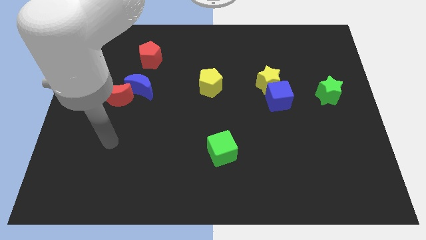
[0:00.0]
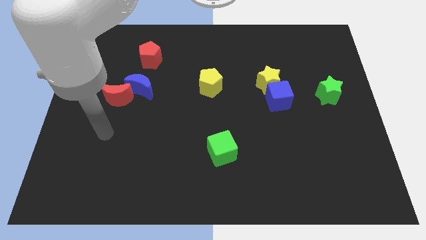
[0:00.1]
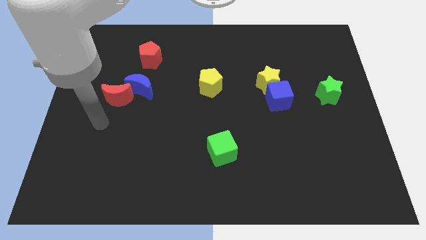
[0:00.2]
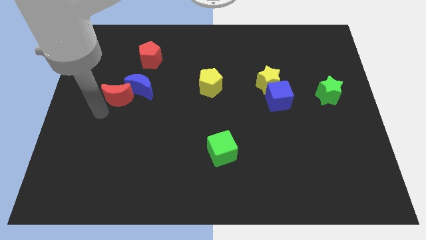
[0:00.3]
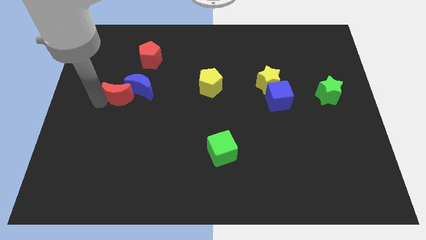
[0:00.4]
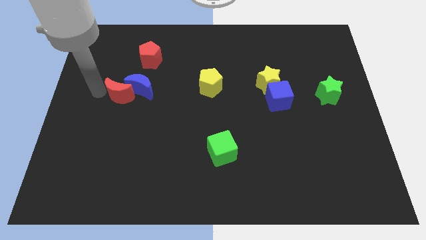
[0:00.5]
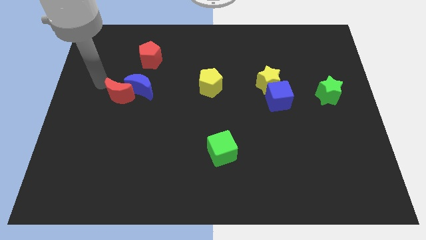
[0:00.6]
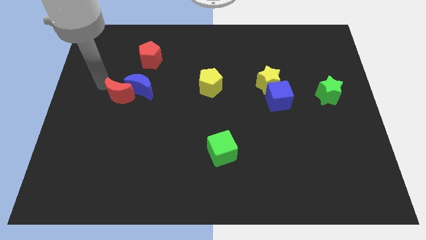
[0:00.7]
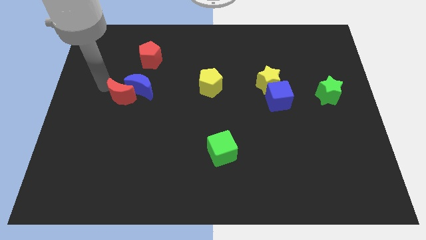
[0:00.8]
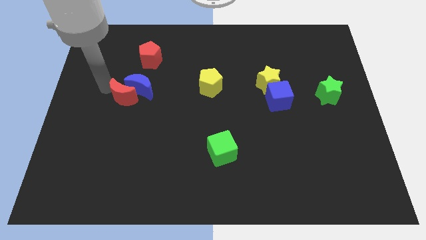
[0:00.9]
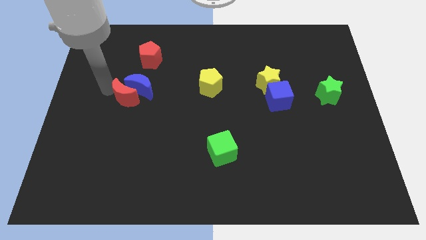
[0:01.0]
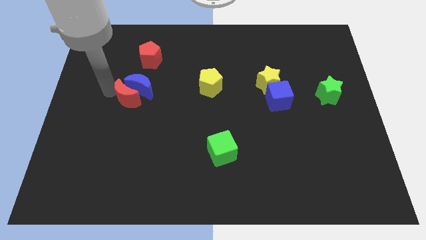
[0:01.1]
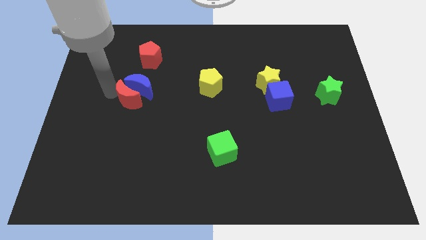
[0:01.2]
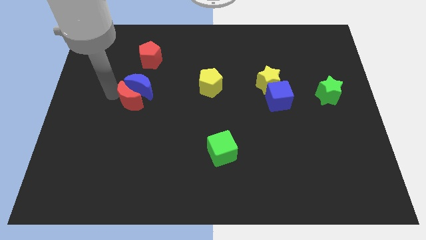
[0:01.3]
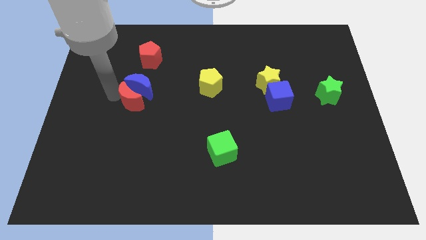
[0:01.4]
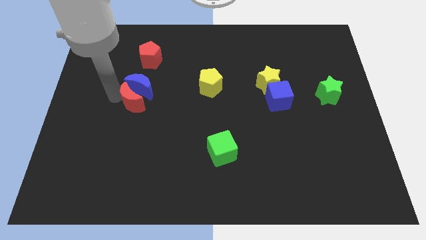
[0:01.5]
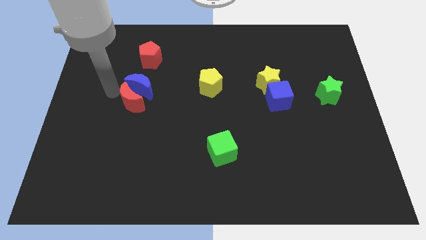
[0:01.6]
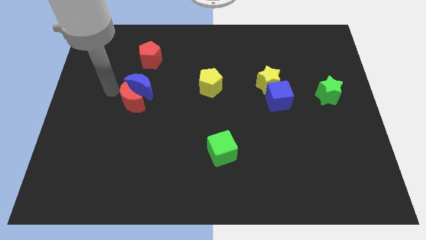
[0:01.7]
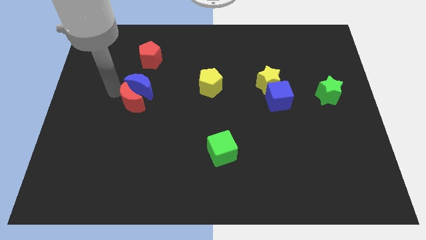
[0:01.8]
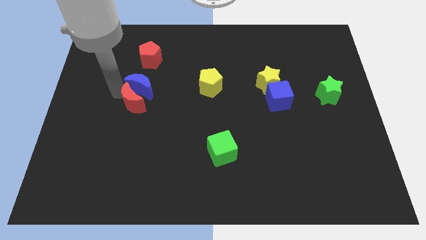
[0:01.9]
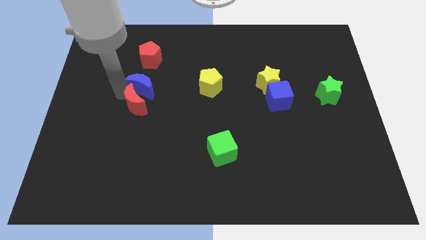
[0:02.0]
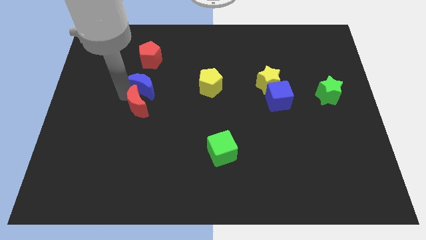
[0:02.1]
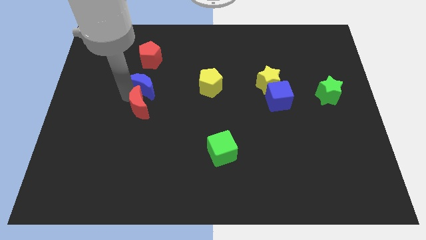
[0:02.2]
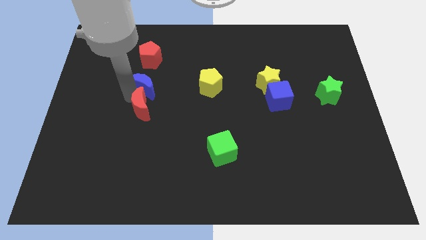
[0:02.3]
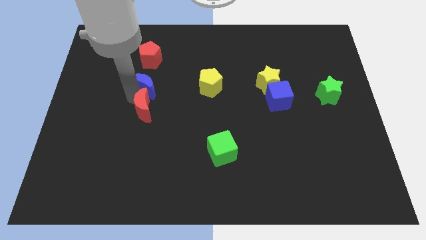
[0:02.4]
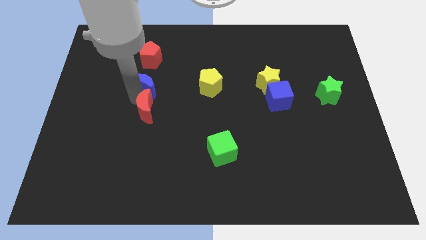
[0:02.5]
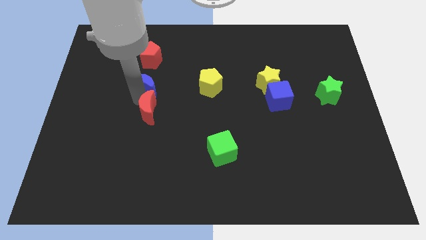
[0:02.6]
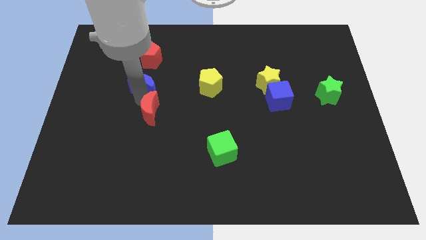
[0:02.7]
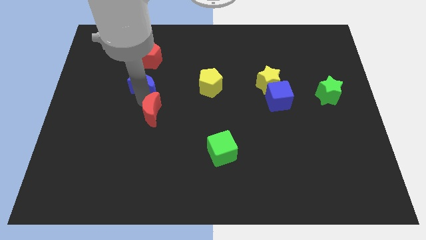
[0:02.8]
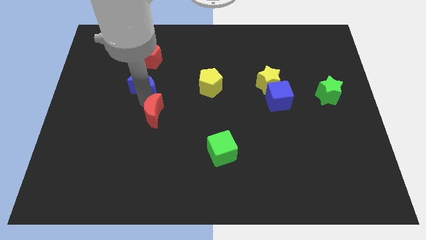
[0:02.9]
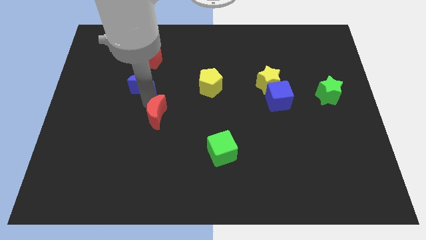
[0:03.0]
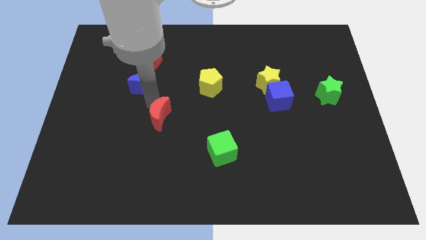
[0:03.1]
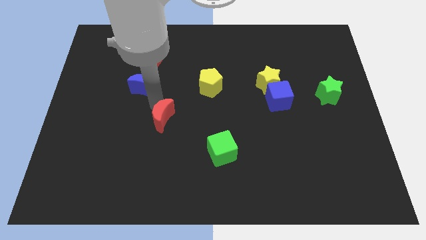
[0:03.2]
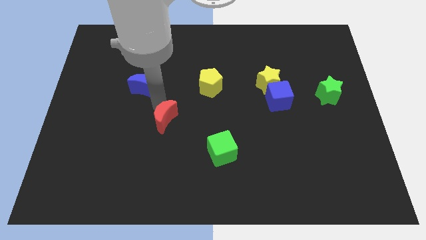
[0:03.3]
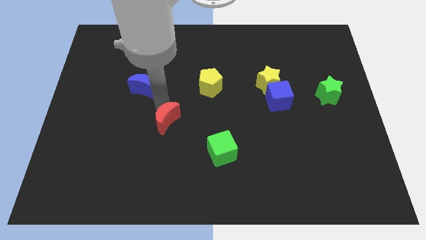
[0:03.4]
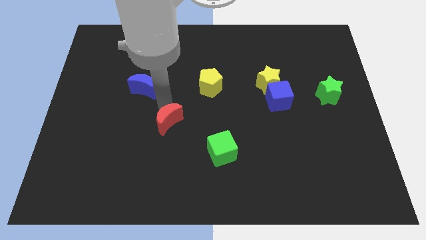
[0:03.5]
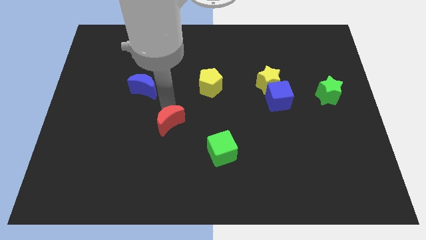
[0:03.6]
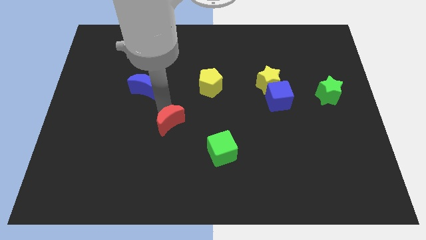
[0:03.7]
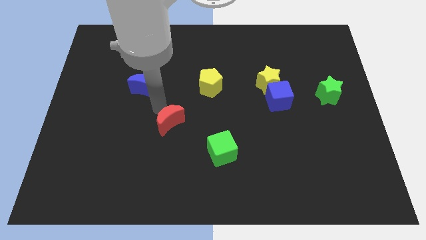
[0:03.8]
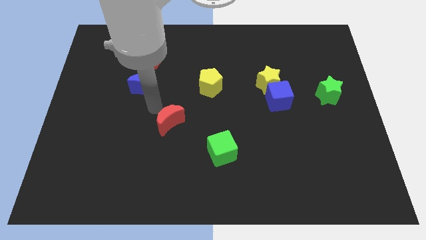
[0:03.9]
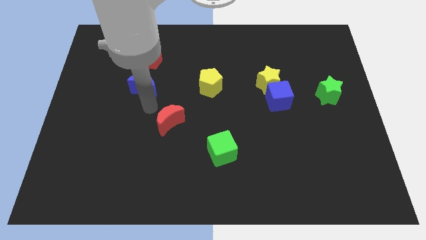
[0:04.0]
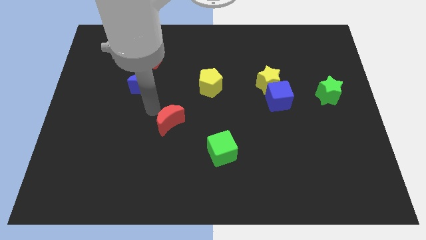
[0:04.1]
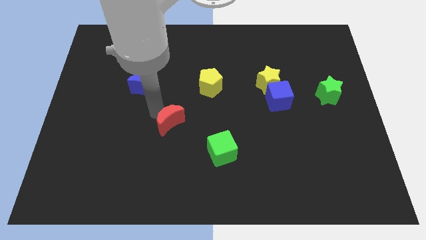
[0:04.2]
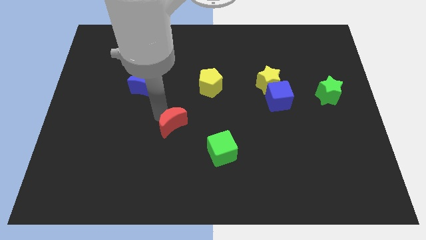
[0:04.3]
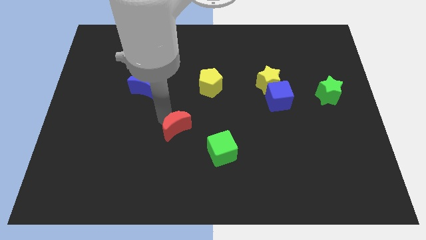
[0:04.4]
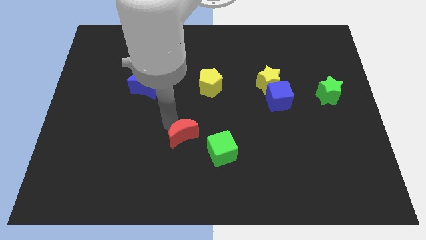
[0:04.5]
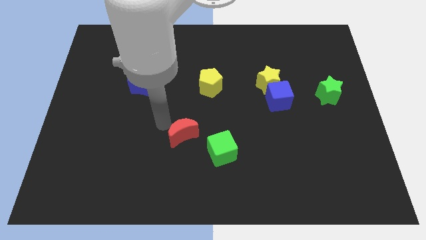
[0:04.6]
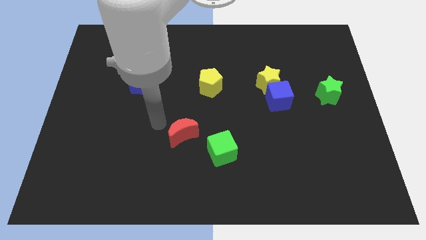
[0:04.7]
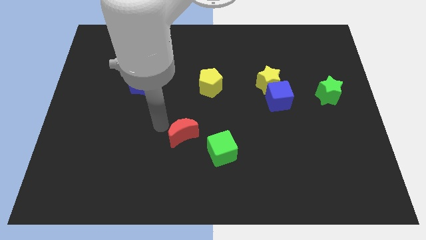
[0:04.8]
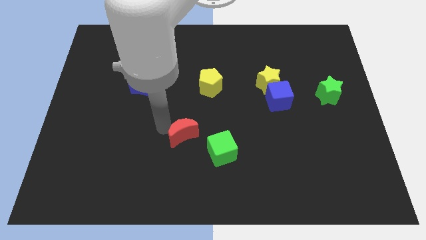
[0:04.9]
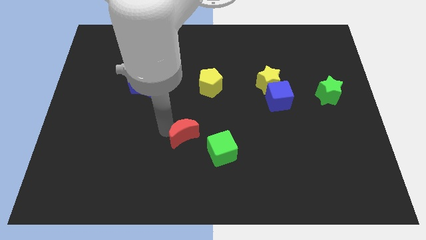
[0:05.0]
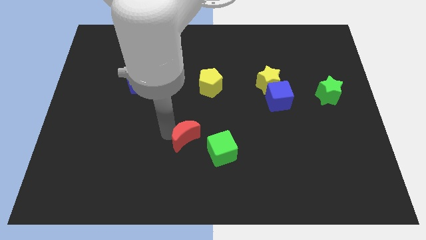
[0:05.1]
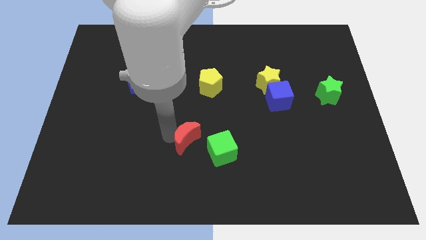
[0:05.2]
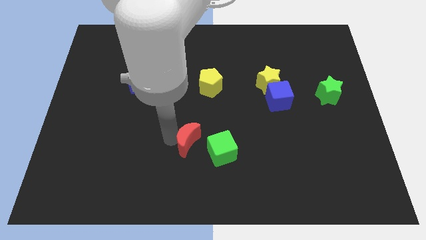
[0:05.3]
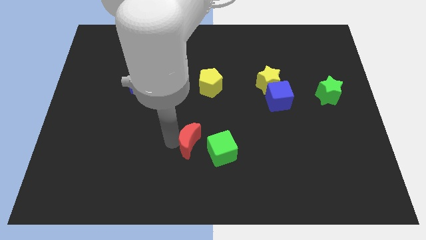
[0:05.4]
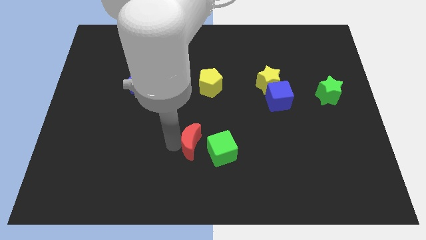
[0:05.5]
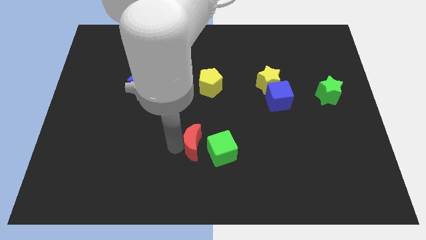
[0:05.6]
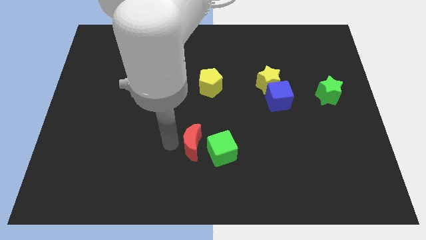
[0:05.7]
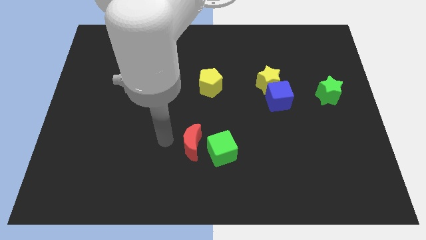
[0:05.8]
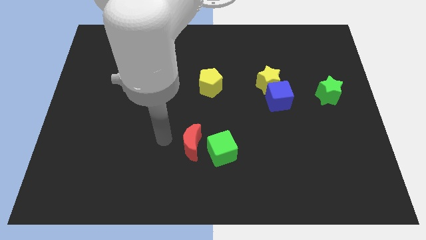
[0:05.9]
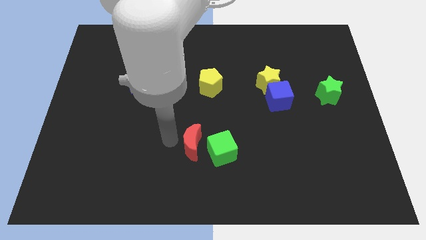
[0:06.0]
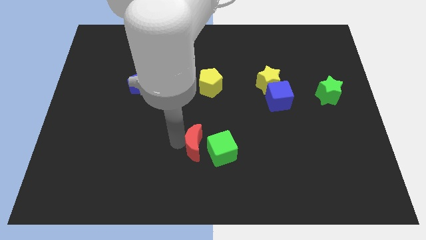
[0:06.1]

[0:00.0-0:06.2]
put the red moon next to the green cube

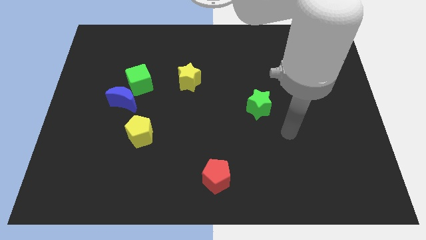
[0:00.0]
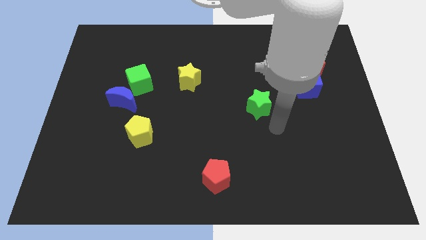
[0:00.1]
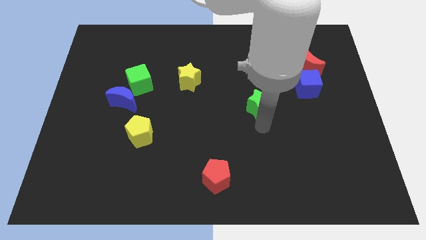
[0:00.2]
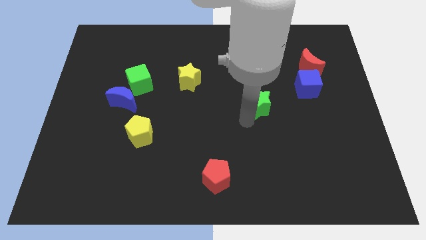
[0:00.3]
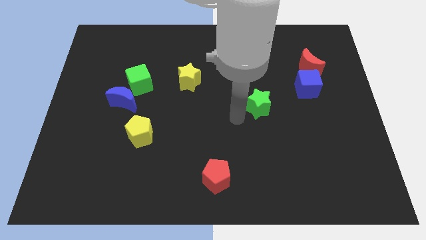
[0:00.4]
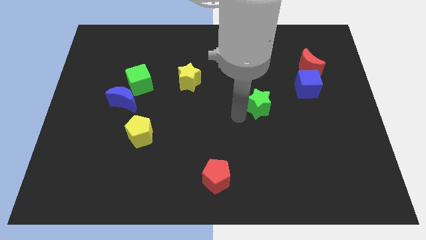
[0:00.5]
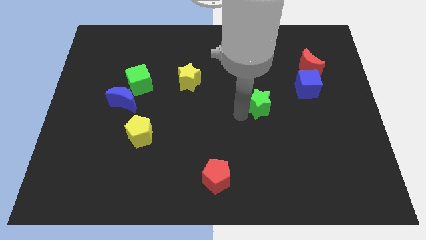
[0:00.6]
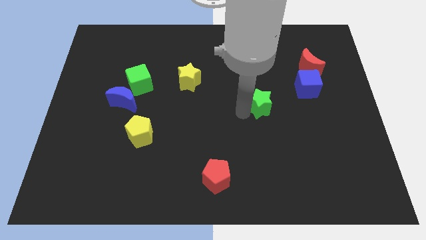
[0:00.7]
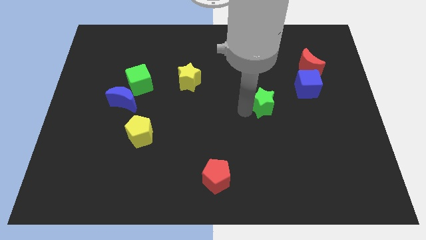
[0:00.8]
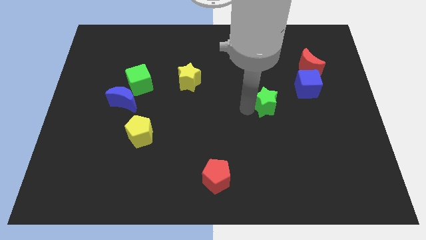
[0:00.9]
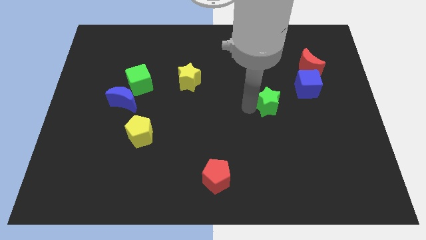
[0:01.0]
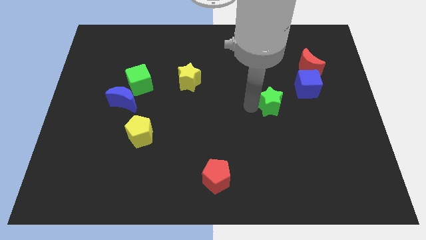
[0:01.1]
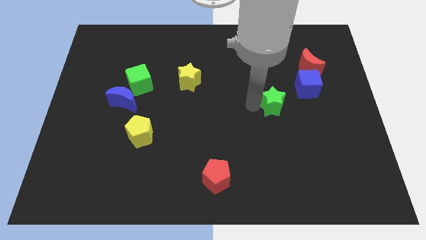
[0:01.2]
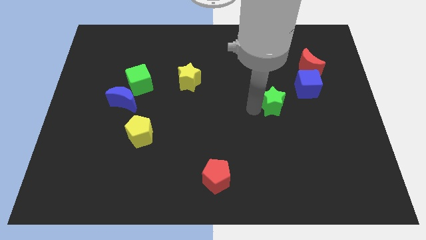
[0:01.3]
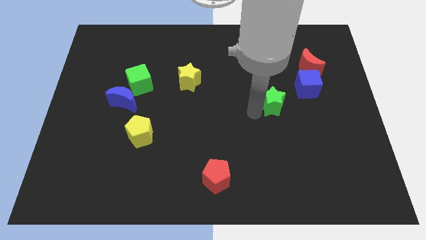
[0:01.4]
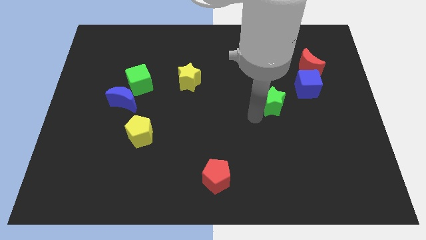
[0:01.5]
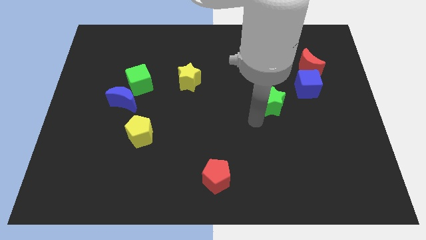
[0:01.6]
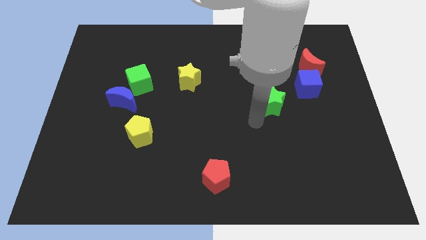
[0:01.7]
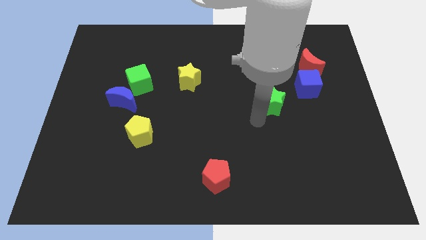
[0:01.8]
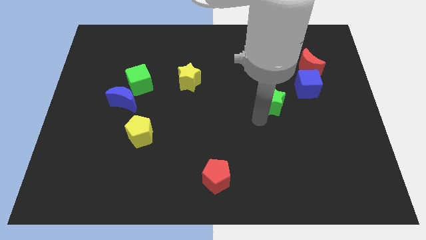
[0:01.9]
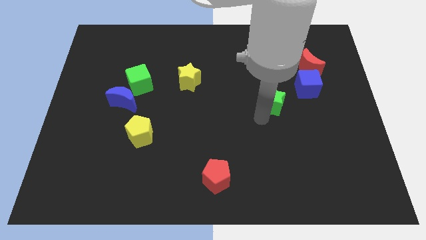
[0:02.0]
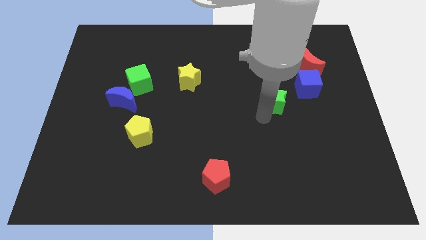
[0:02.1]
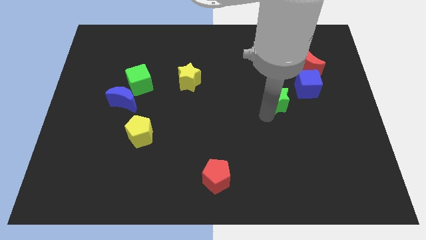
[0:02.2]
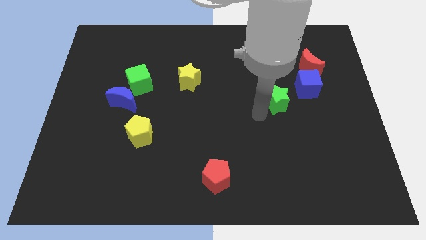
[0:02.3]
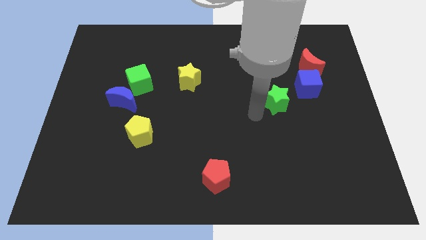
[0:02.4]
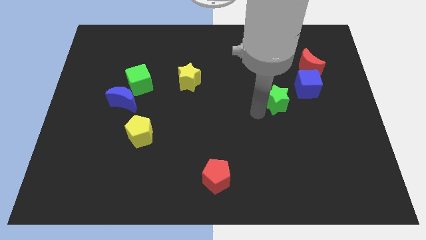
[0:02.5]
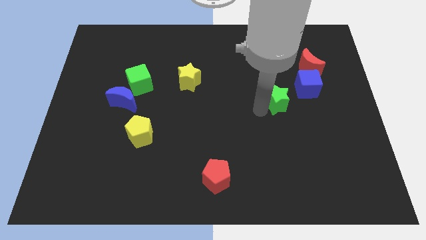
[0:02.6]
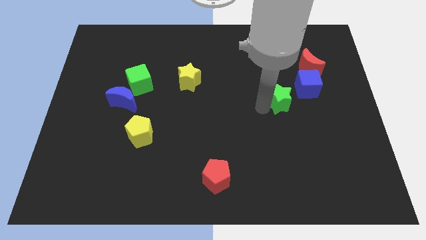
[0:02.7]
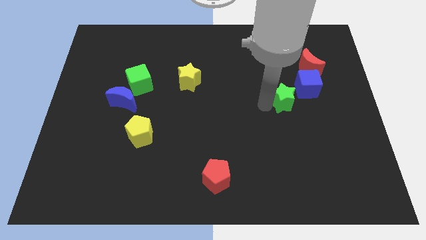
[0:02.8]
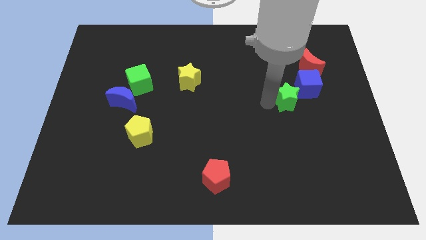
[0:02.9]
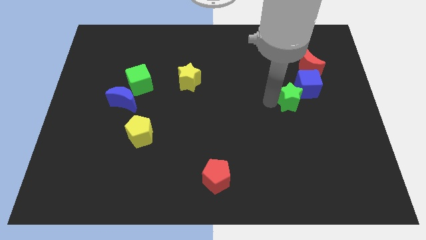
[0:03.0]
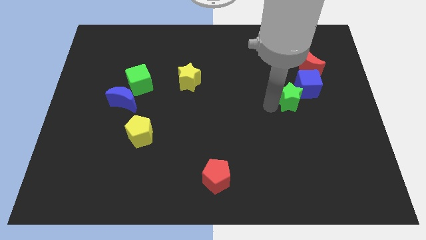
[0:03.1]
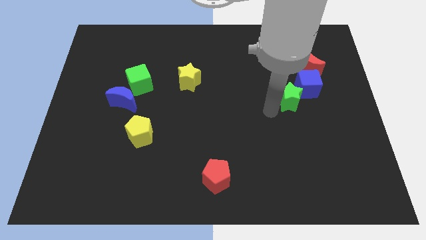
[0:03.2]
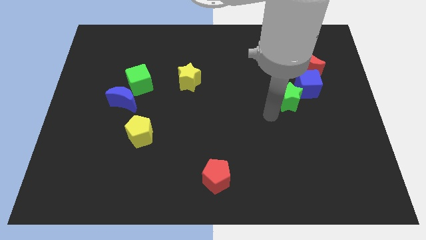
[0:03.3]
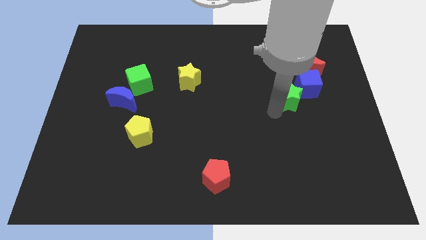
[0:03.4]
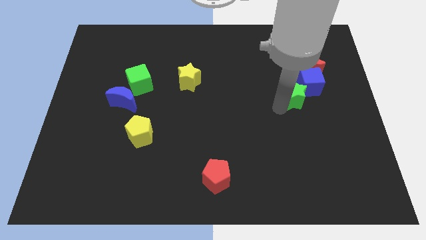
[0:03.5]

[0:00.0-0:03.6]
push the green star to the blue cube
